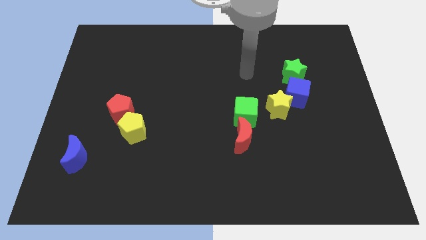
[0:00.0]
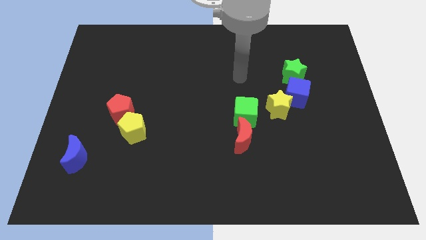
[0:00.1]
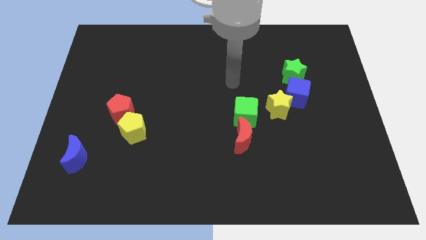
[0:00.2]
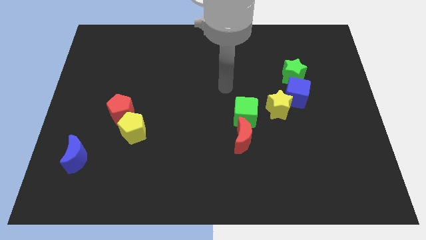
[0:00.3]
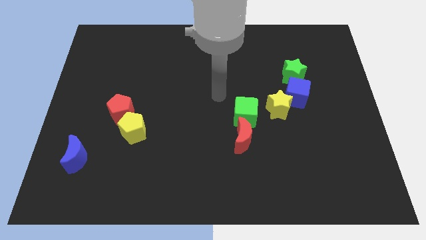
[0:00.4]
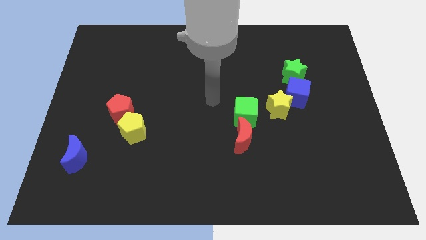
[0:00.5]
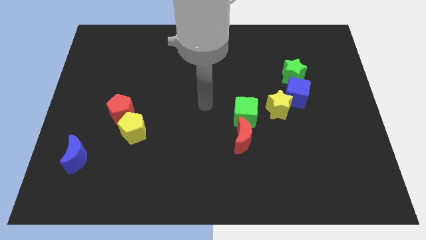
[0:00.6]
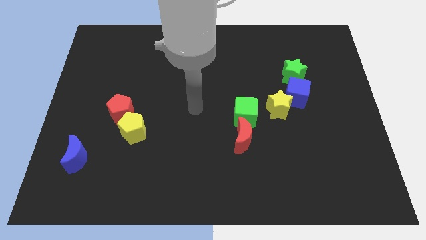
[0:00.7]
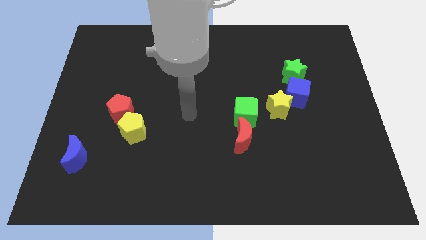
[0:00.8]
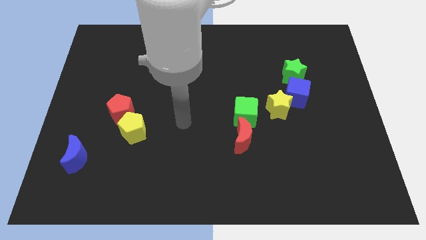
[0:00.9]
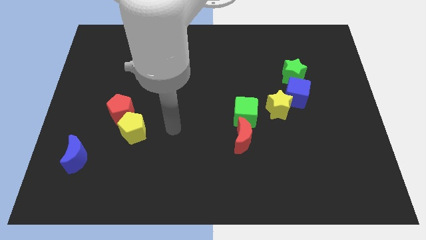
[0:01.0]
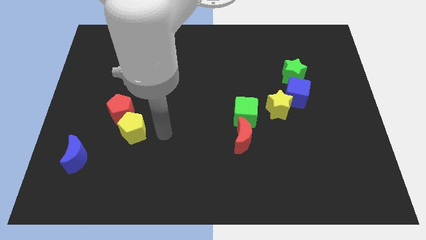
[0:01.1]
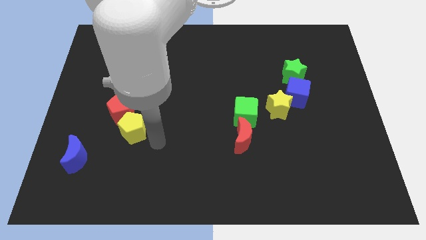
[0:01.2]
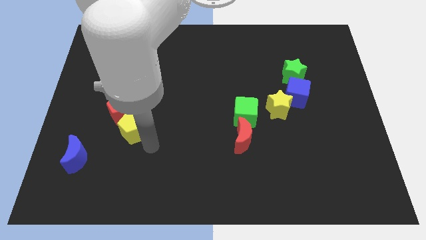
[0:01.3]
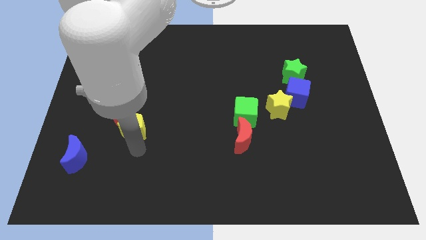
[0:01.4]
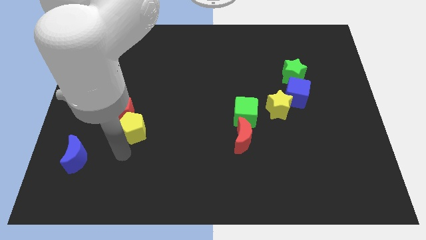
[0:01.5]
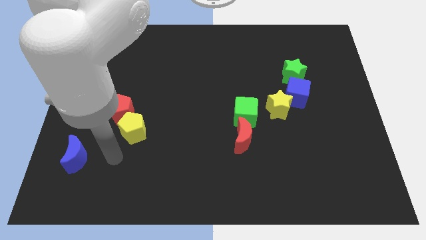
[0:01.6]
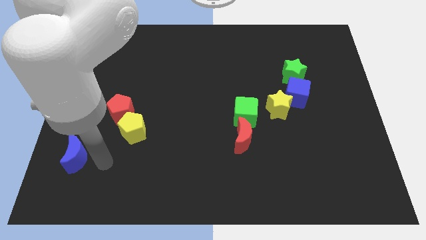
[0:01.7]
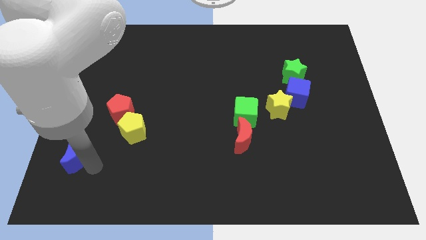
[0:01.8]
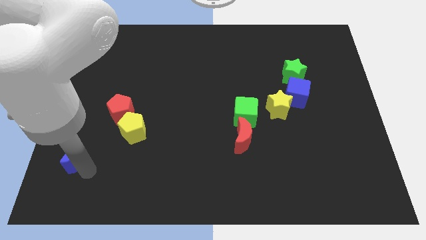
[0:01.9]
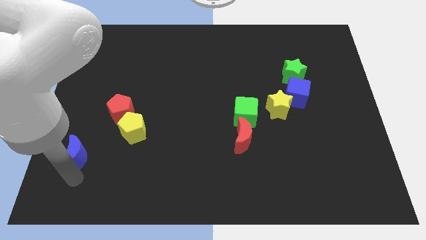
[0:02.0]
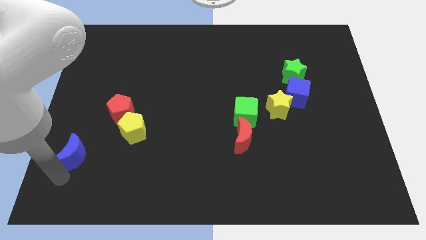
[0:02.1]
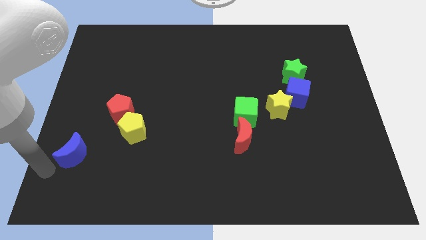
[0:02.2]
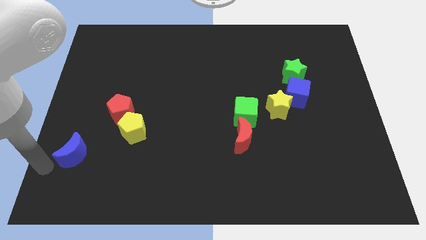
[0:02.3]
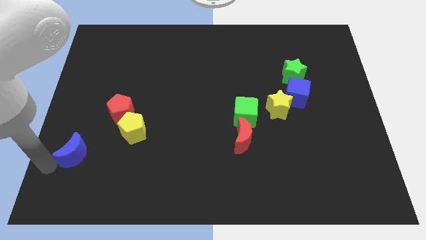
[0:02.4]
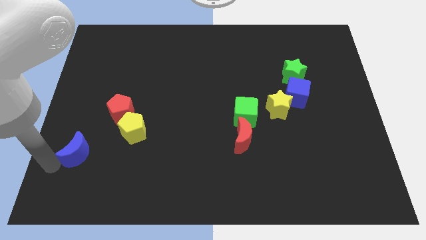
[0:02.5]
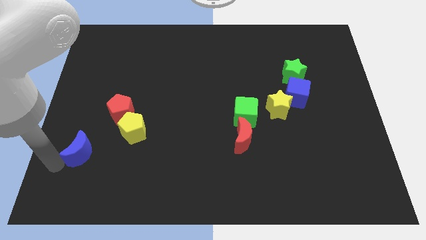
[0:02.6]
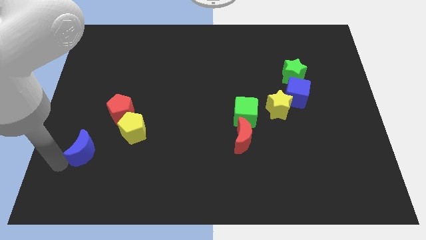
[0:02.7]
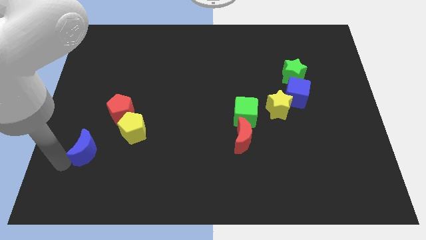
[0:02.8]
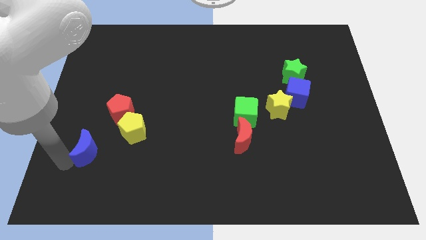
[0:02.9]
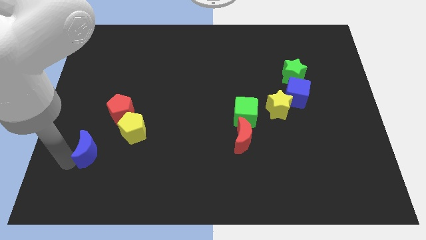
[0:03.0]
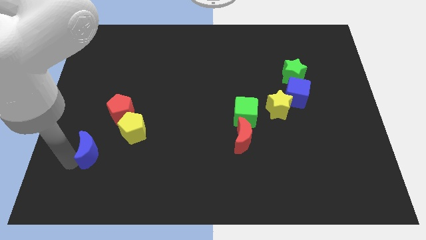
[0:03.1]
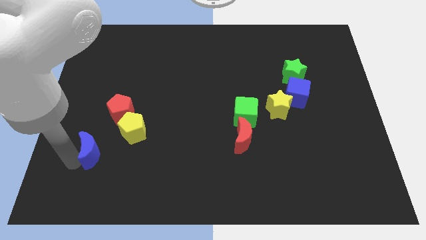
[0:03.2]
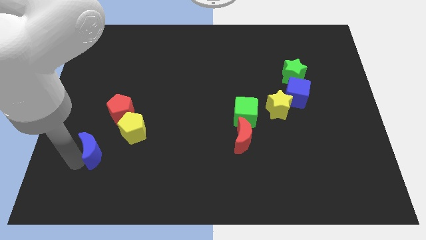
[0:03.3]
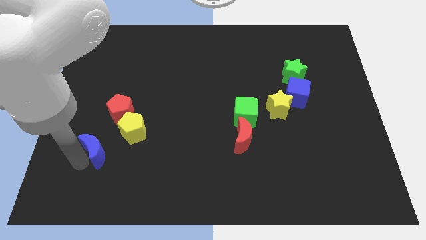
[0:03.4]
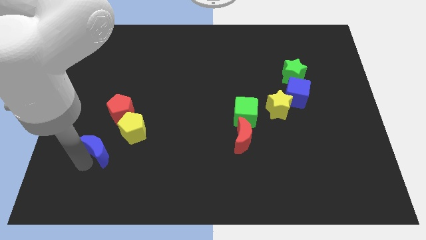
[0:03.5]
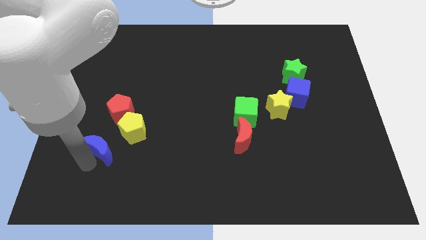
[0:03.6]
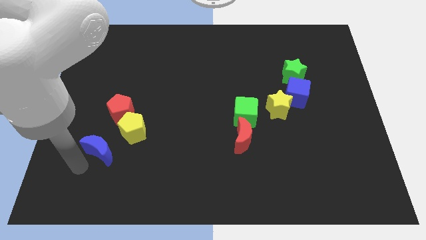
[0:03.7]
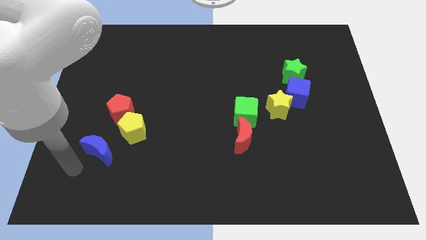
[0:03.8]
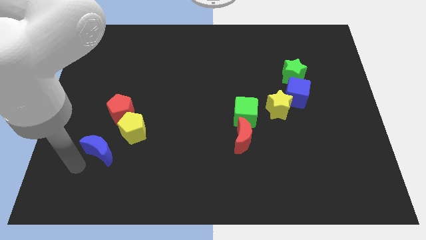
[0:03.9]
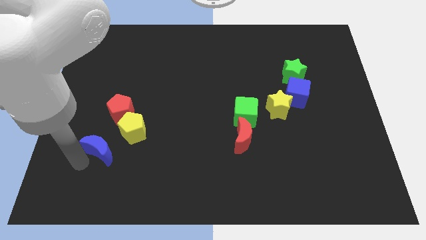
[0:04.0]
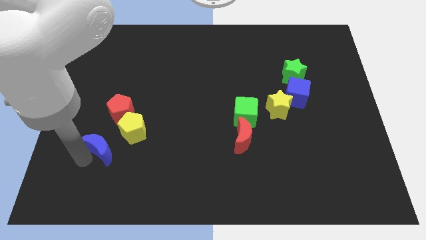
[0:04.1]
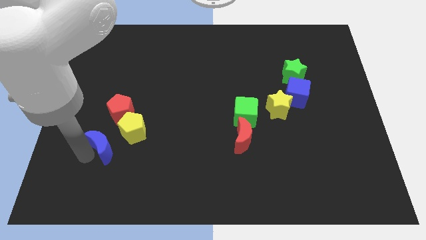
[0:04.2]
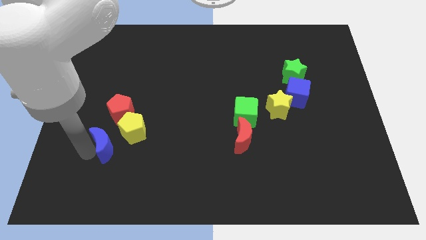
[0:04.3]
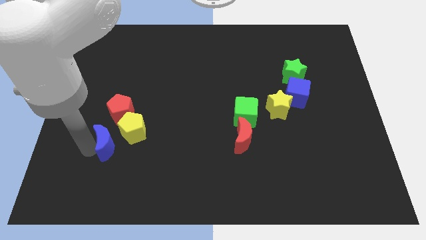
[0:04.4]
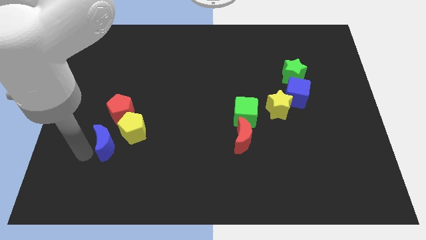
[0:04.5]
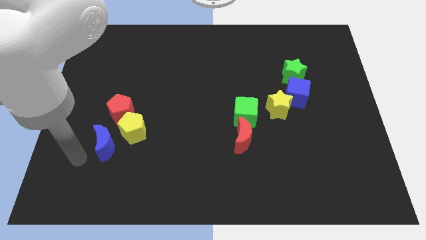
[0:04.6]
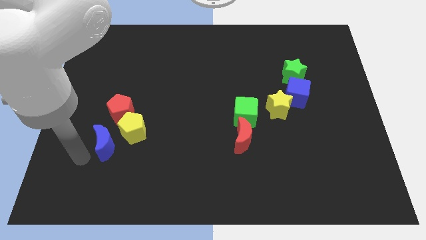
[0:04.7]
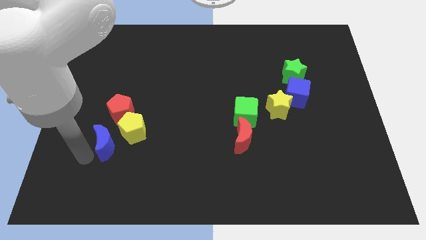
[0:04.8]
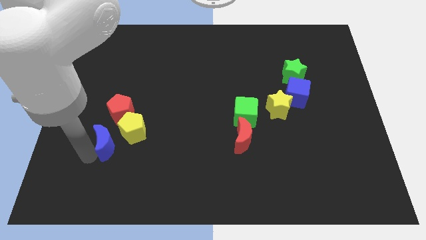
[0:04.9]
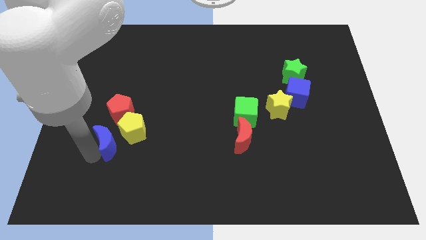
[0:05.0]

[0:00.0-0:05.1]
move the blue moon next to the yellow pentagon

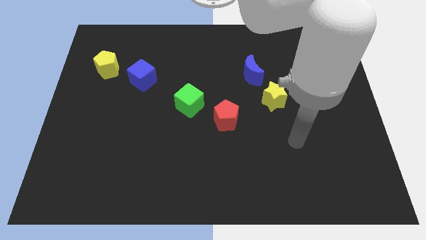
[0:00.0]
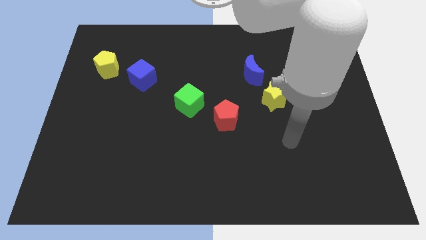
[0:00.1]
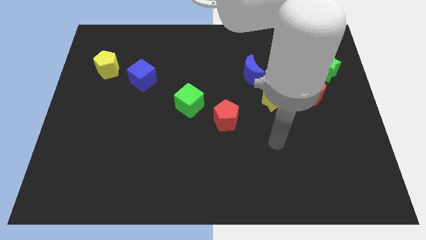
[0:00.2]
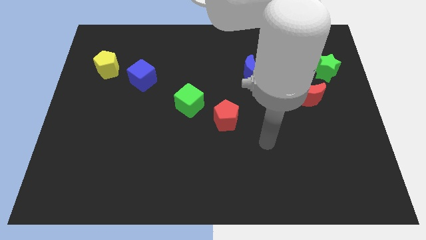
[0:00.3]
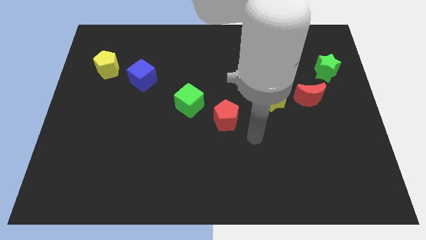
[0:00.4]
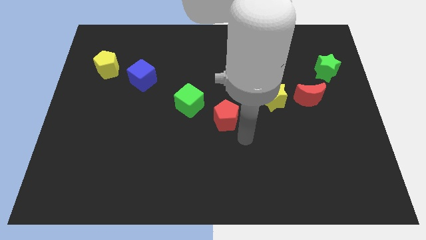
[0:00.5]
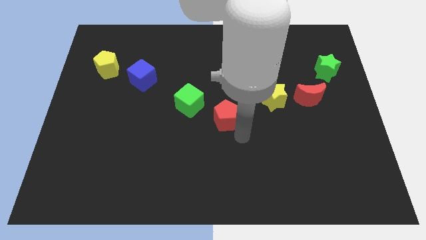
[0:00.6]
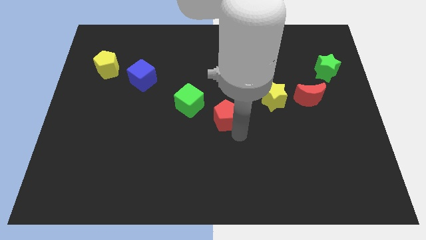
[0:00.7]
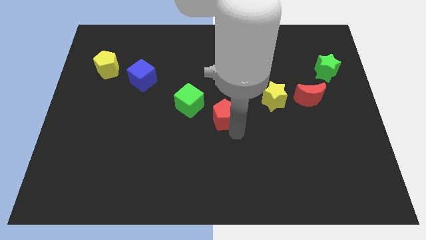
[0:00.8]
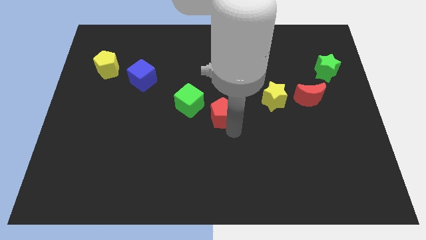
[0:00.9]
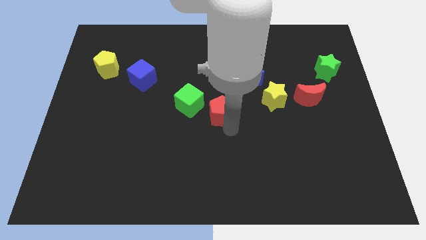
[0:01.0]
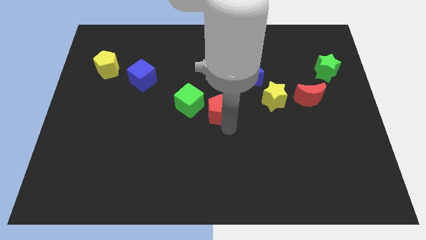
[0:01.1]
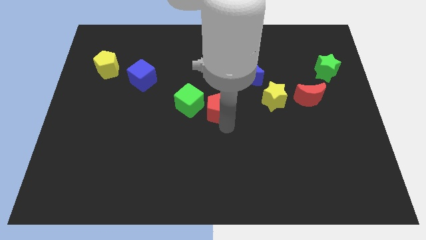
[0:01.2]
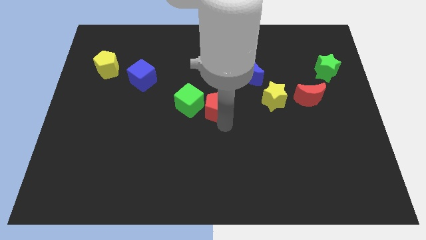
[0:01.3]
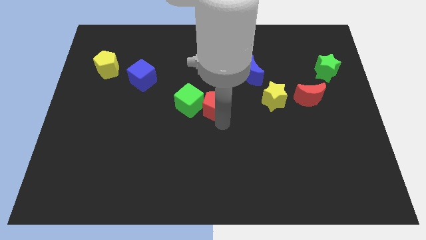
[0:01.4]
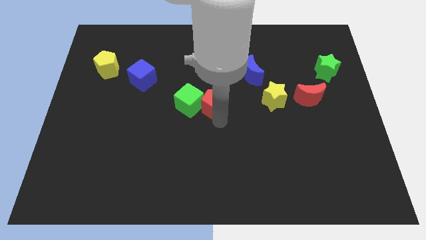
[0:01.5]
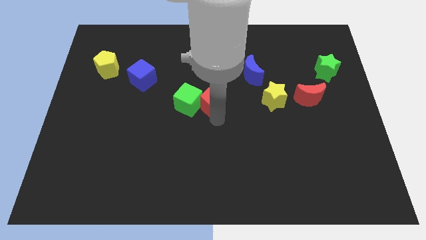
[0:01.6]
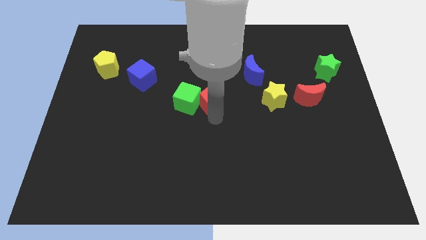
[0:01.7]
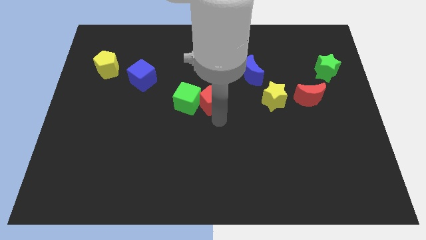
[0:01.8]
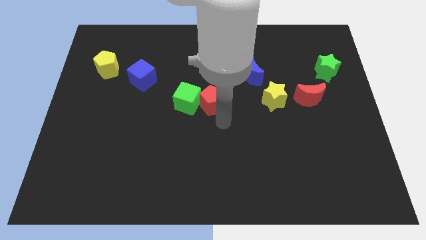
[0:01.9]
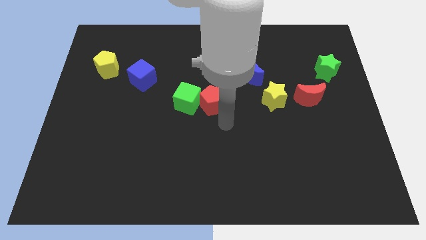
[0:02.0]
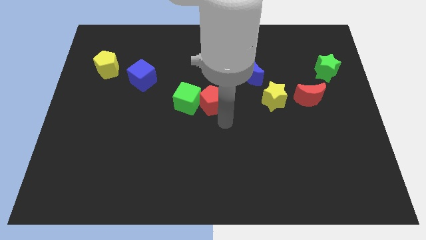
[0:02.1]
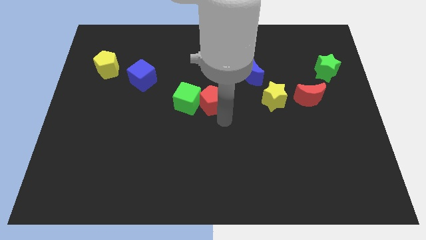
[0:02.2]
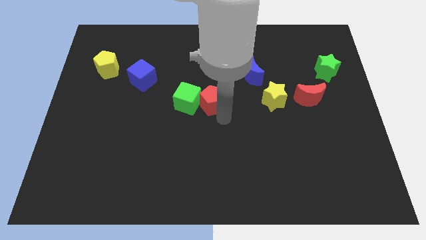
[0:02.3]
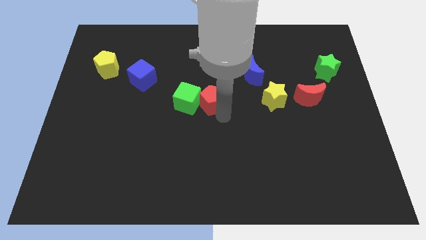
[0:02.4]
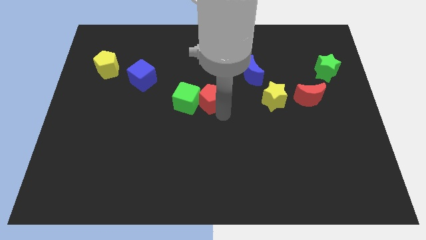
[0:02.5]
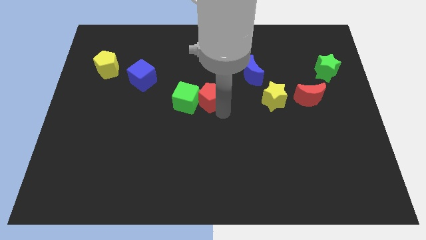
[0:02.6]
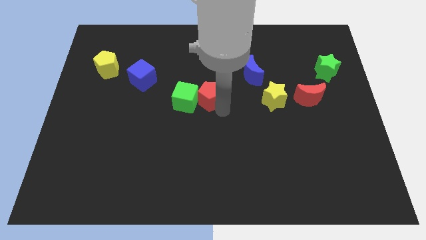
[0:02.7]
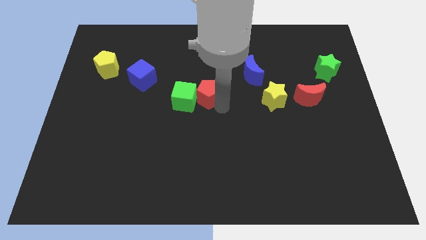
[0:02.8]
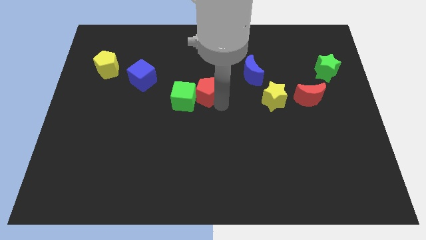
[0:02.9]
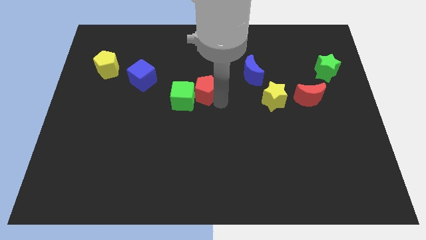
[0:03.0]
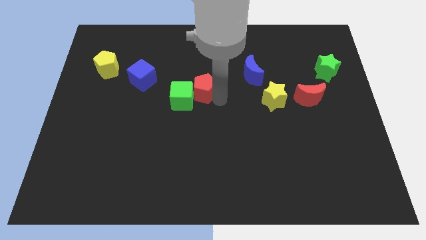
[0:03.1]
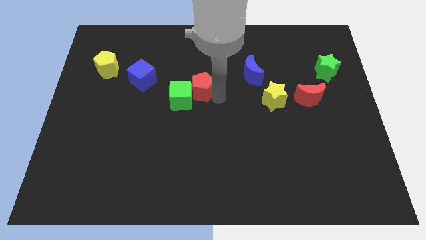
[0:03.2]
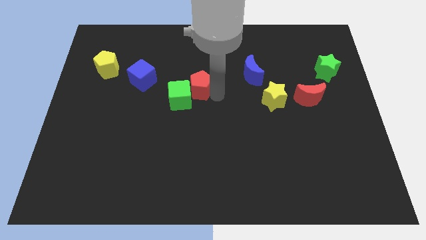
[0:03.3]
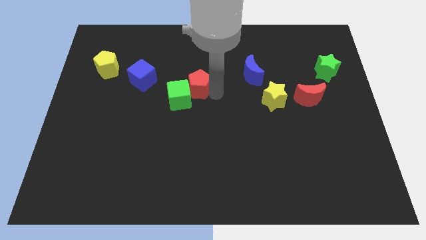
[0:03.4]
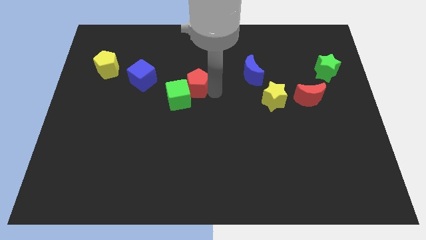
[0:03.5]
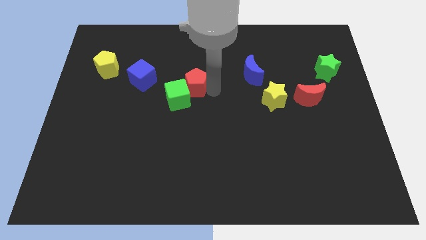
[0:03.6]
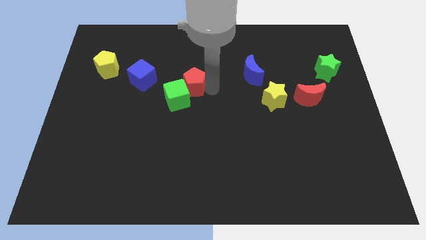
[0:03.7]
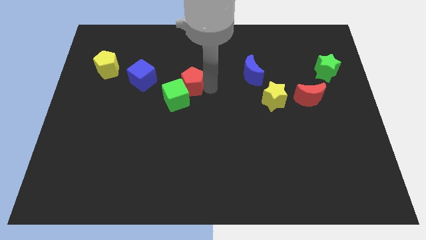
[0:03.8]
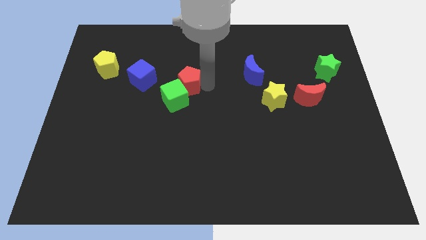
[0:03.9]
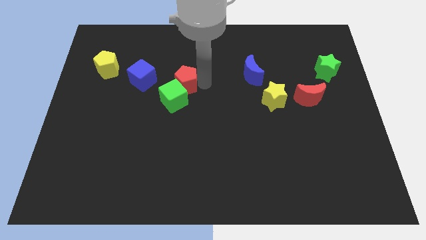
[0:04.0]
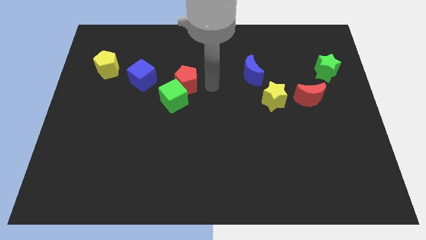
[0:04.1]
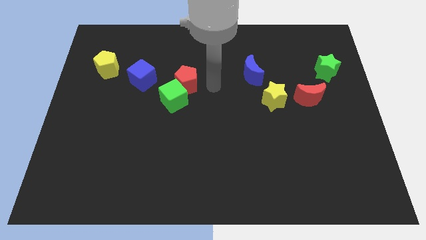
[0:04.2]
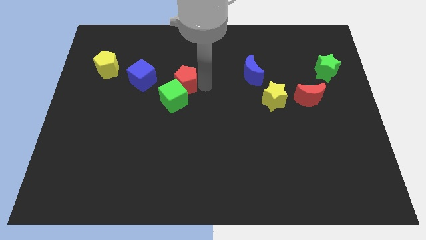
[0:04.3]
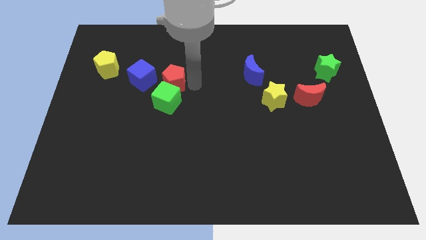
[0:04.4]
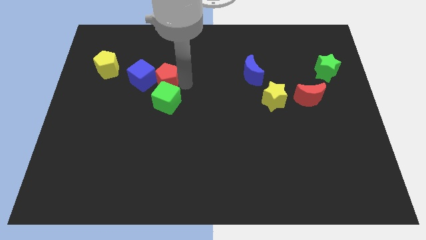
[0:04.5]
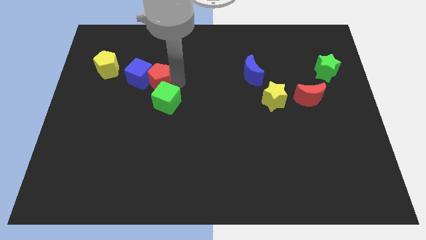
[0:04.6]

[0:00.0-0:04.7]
slide the red pentagon to the blue cube
